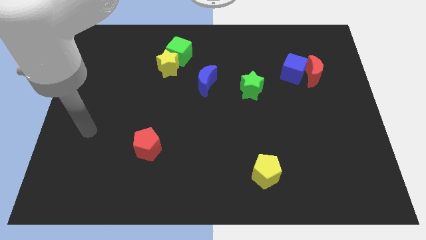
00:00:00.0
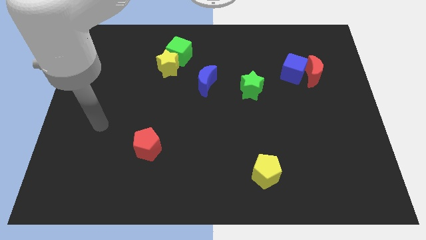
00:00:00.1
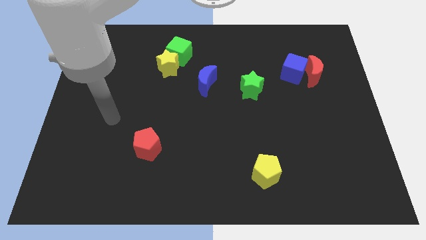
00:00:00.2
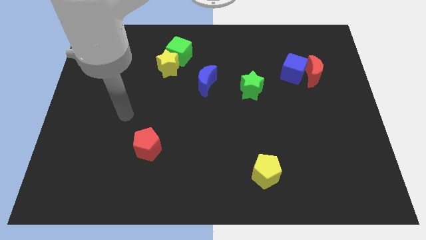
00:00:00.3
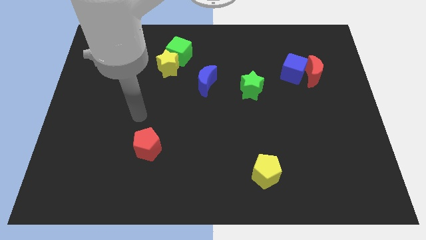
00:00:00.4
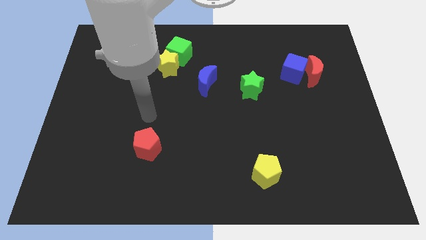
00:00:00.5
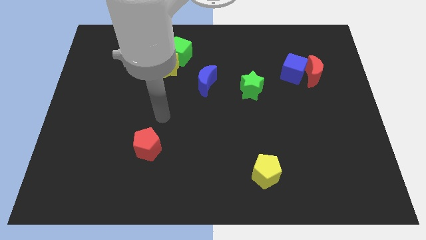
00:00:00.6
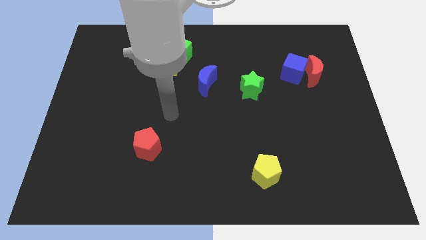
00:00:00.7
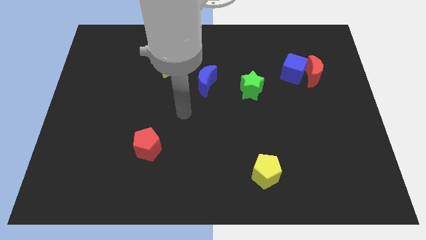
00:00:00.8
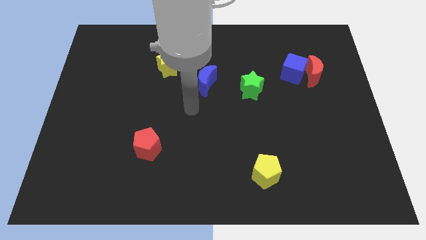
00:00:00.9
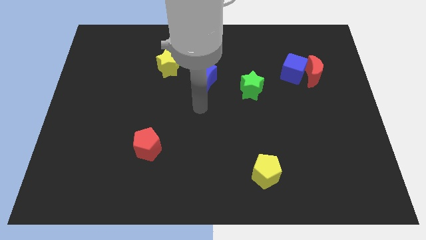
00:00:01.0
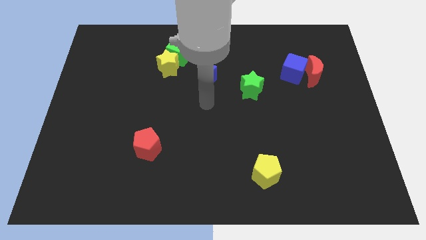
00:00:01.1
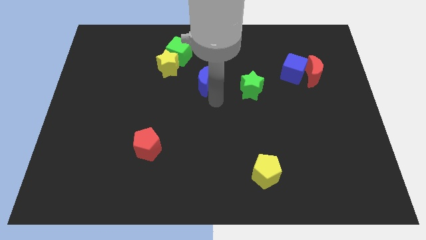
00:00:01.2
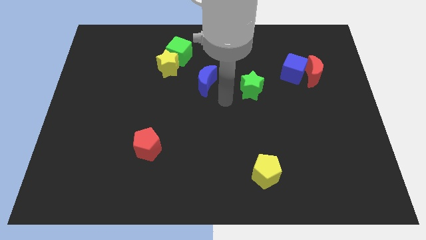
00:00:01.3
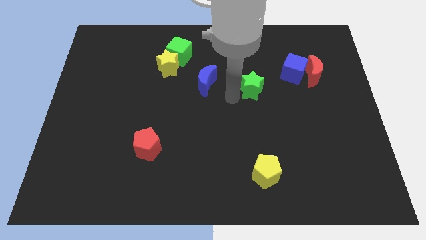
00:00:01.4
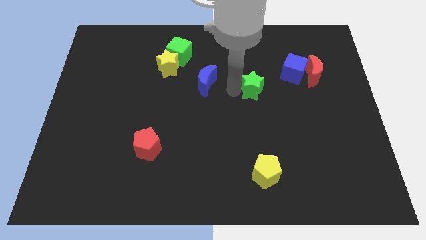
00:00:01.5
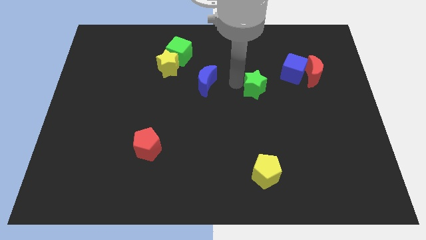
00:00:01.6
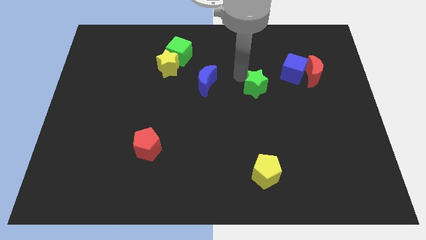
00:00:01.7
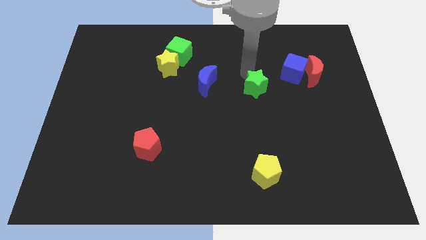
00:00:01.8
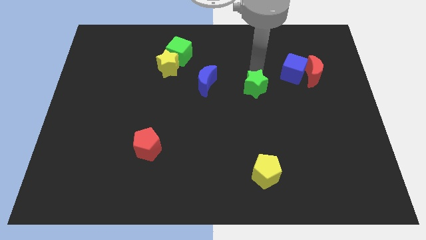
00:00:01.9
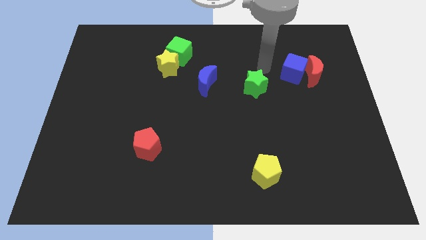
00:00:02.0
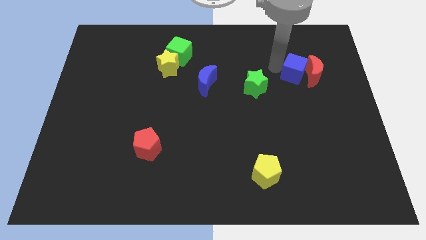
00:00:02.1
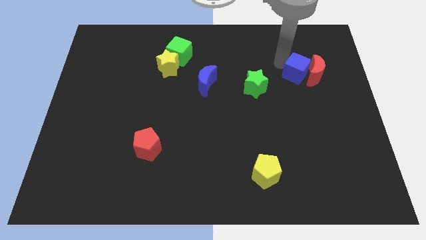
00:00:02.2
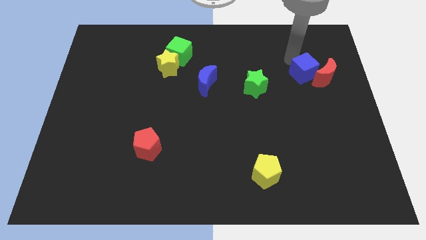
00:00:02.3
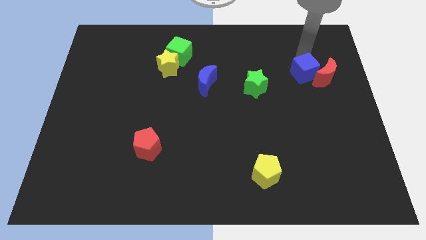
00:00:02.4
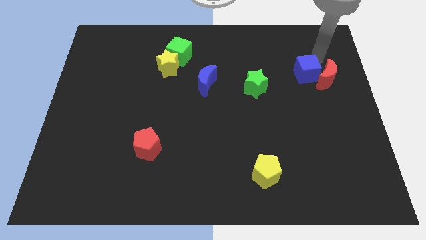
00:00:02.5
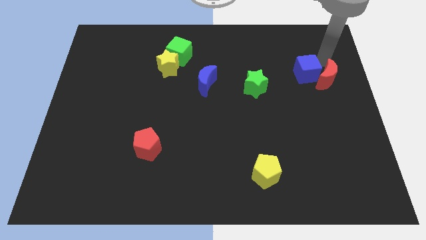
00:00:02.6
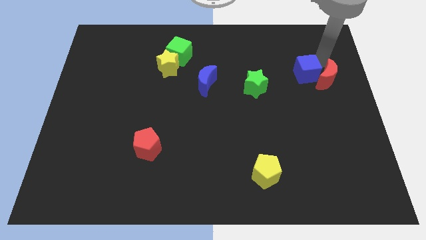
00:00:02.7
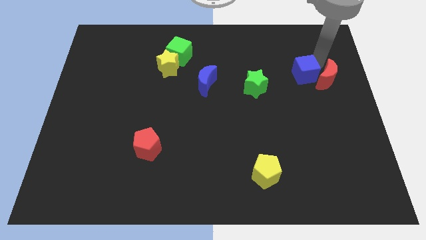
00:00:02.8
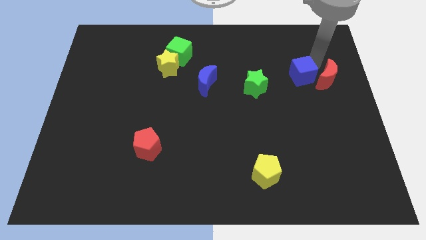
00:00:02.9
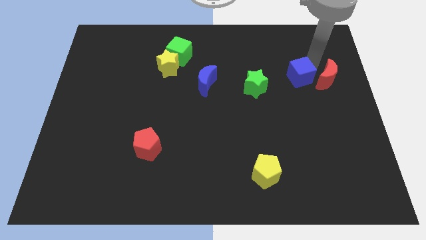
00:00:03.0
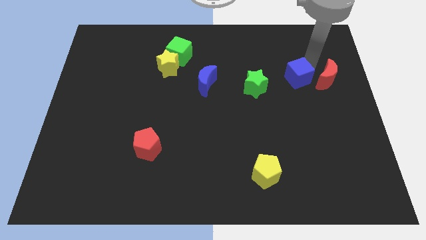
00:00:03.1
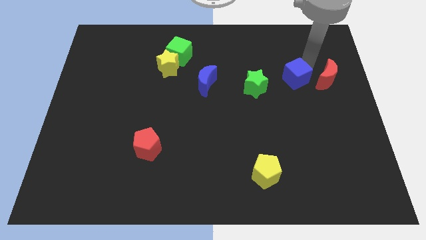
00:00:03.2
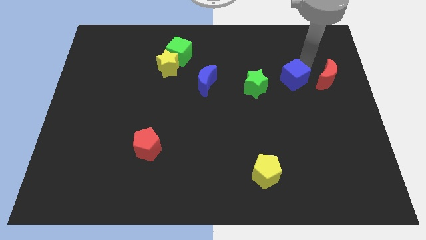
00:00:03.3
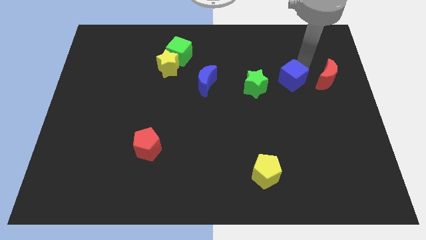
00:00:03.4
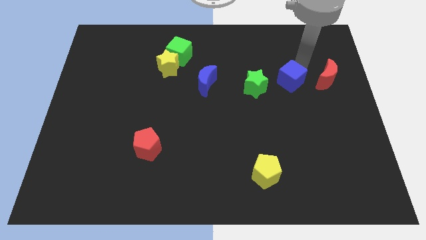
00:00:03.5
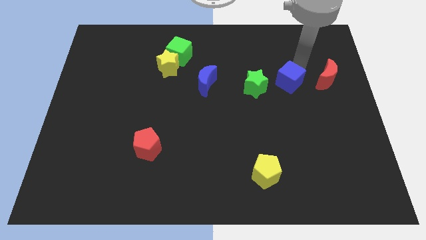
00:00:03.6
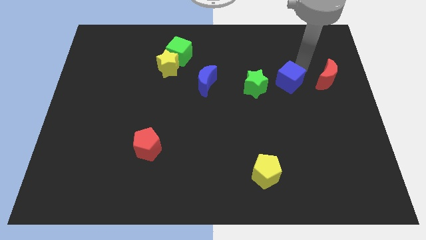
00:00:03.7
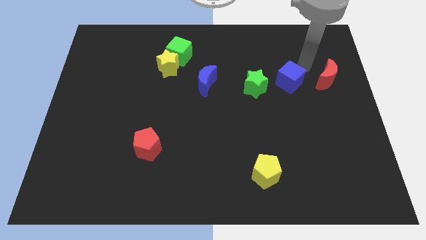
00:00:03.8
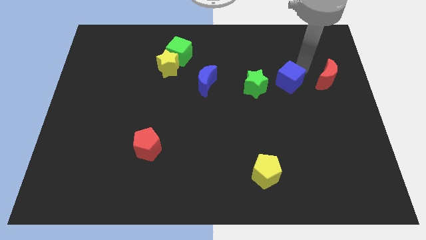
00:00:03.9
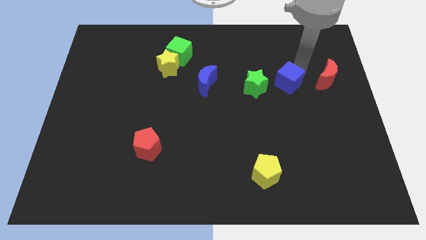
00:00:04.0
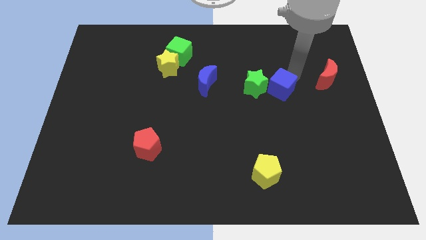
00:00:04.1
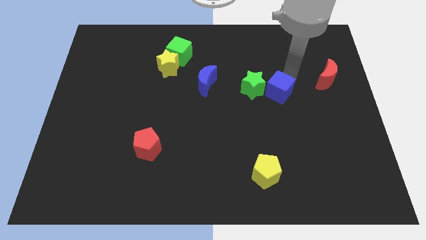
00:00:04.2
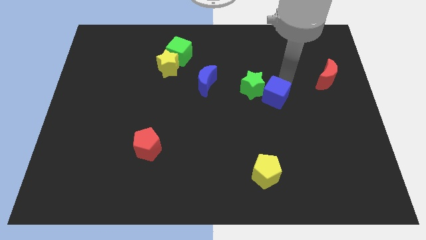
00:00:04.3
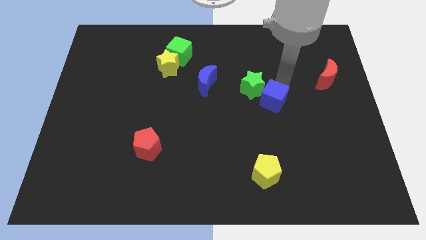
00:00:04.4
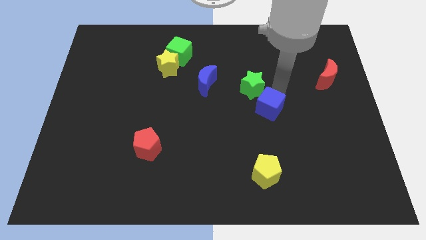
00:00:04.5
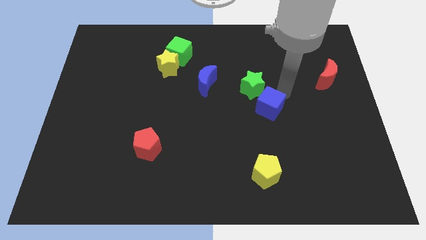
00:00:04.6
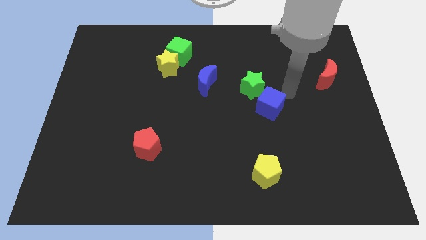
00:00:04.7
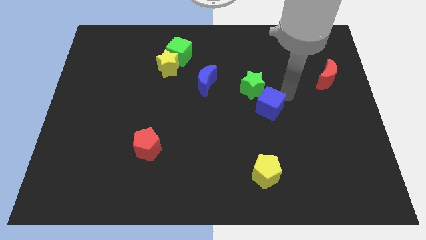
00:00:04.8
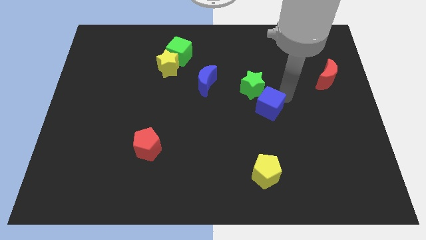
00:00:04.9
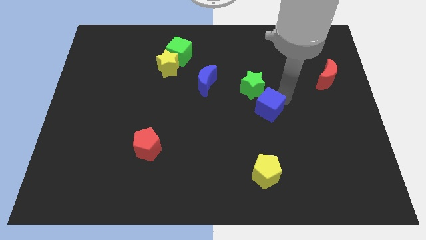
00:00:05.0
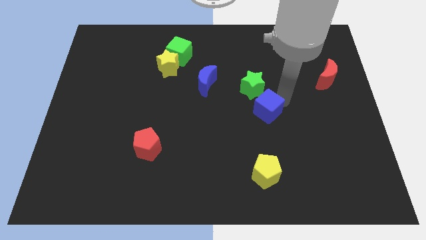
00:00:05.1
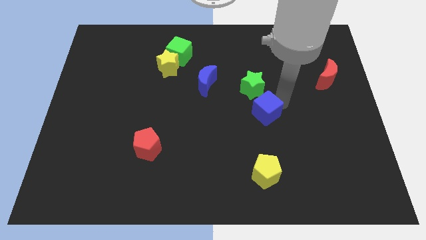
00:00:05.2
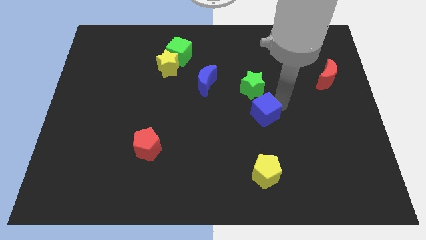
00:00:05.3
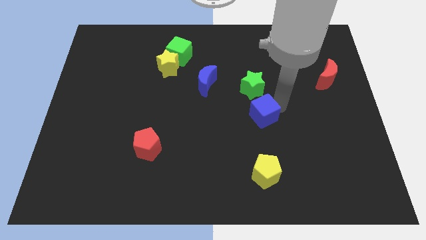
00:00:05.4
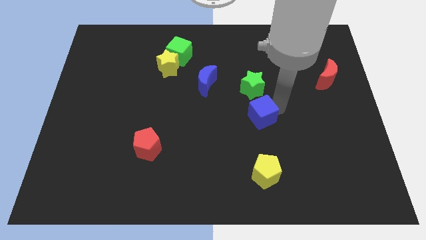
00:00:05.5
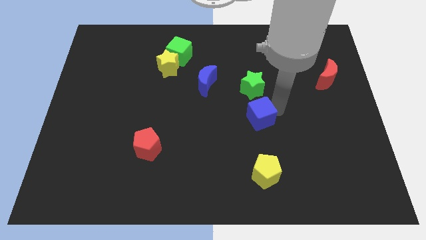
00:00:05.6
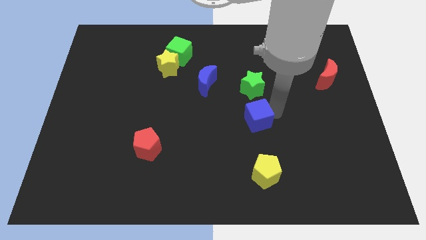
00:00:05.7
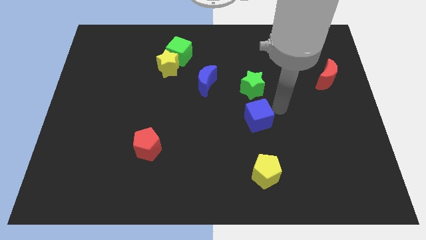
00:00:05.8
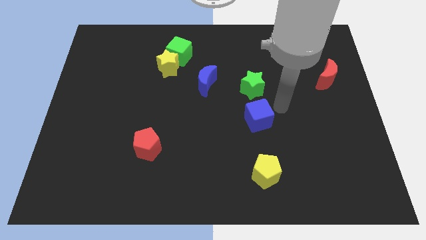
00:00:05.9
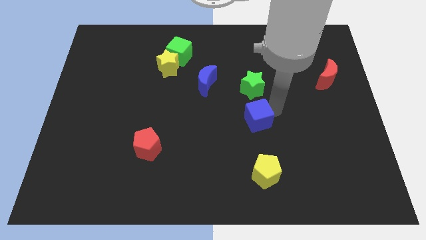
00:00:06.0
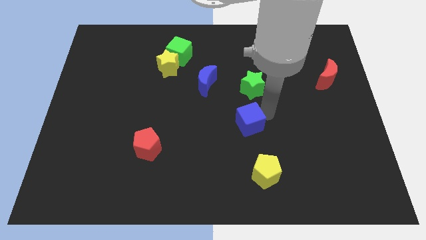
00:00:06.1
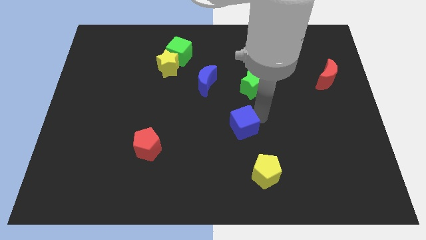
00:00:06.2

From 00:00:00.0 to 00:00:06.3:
slide the blue cube downwards and left

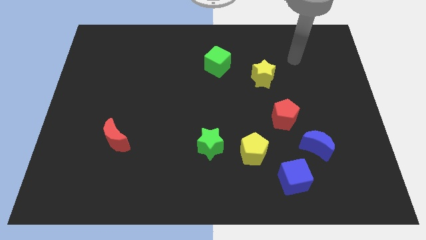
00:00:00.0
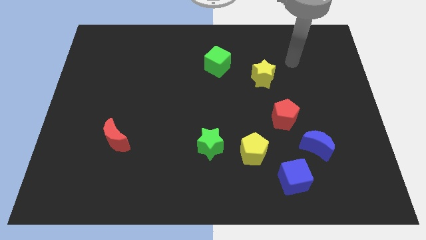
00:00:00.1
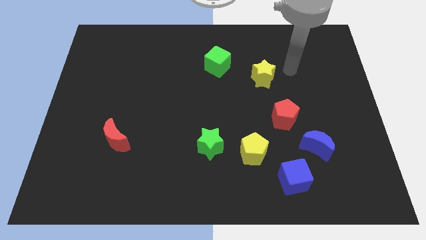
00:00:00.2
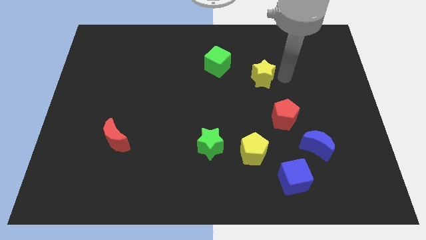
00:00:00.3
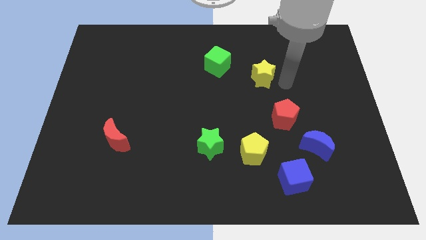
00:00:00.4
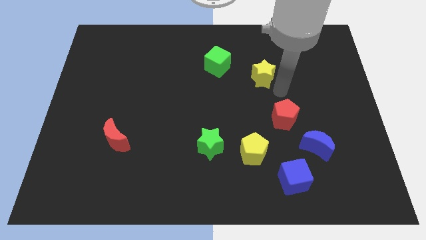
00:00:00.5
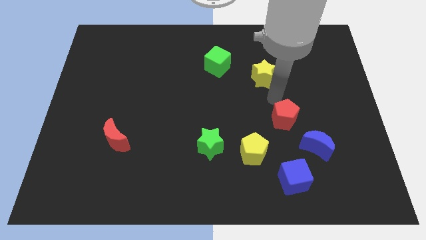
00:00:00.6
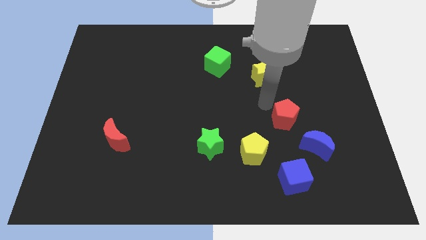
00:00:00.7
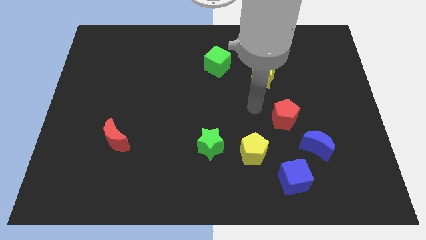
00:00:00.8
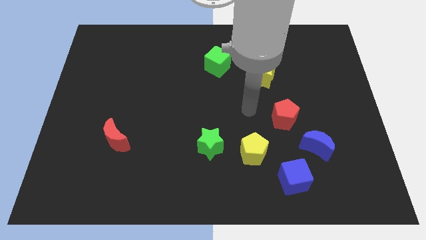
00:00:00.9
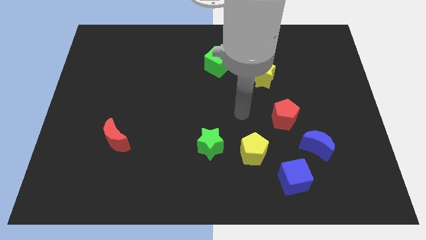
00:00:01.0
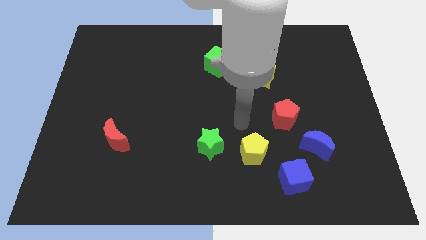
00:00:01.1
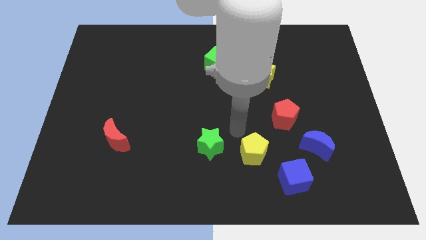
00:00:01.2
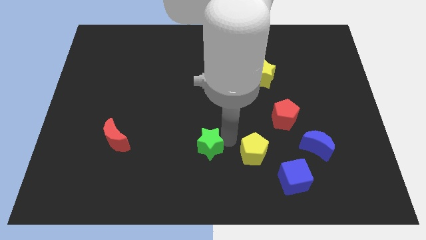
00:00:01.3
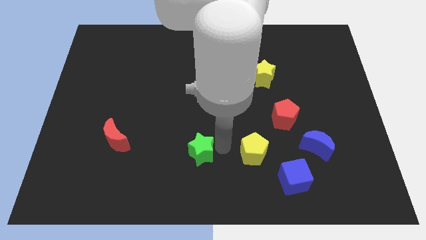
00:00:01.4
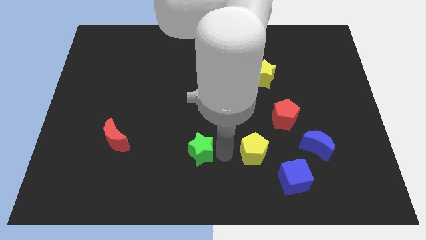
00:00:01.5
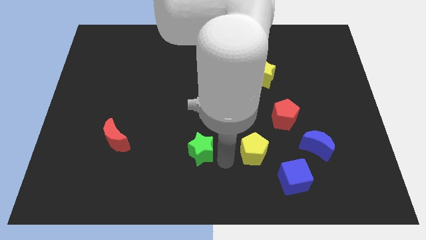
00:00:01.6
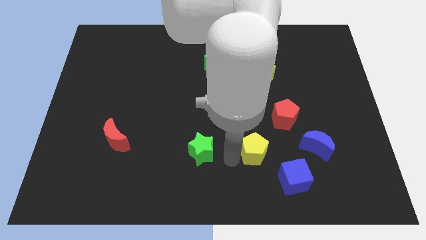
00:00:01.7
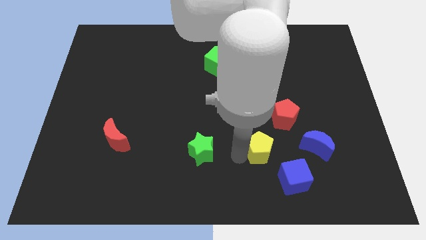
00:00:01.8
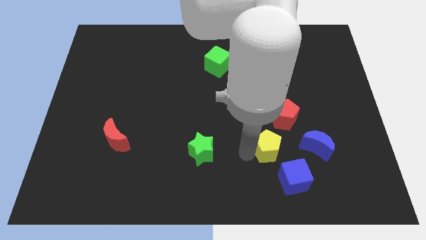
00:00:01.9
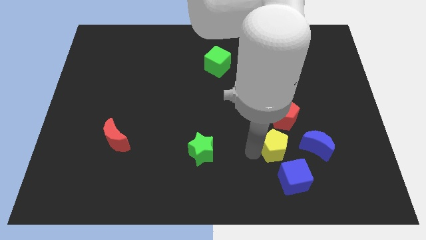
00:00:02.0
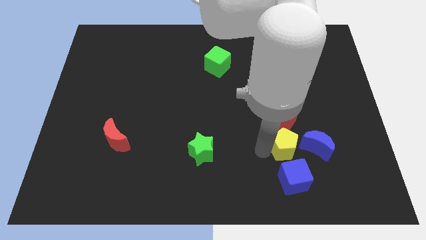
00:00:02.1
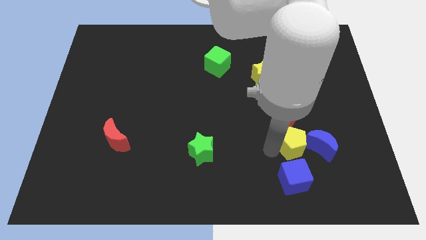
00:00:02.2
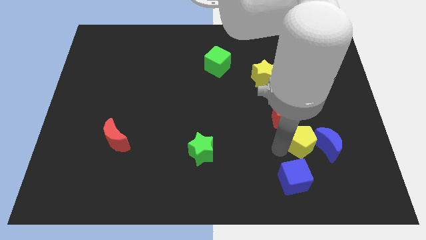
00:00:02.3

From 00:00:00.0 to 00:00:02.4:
slide the yellow pentagon slightly diagonally upwards and to the right
